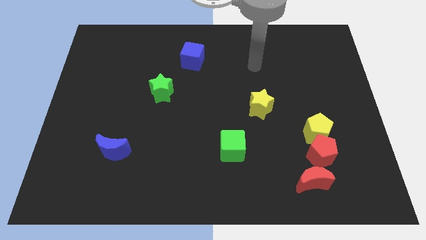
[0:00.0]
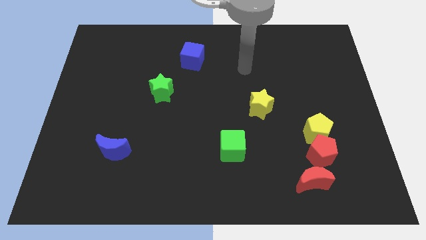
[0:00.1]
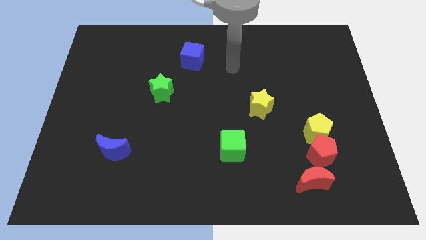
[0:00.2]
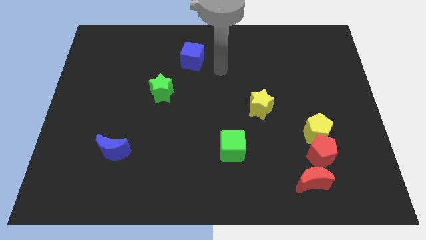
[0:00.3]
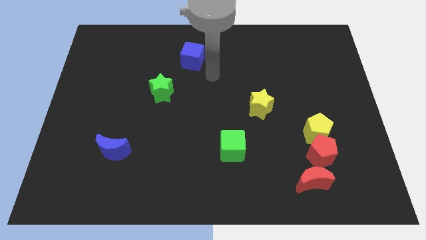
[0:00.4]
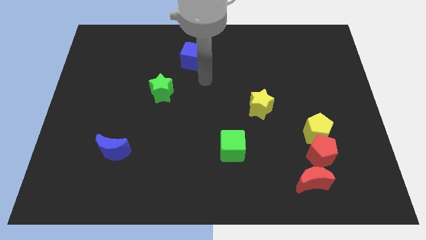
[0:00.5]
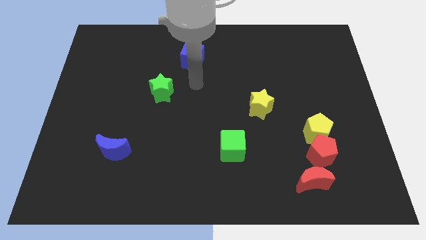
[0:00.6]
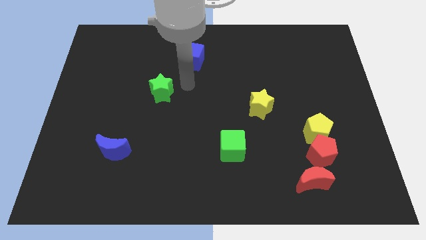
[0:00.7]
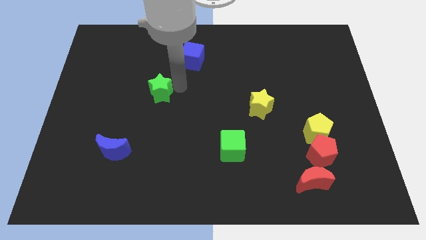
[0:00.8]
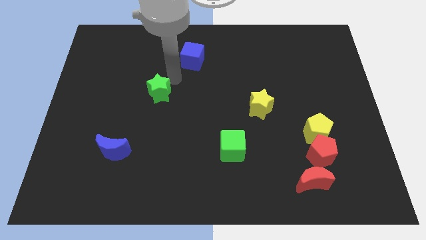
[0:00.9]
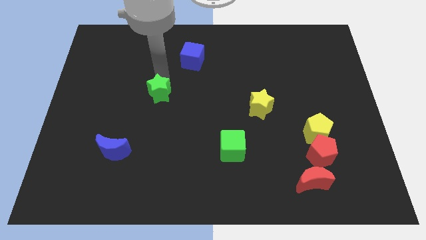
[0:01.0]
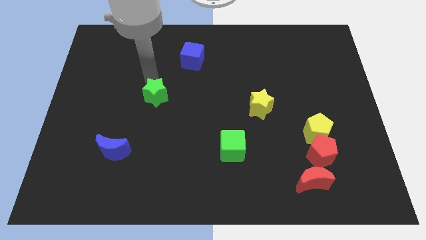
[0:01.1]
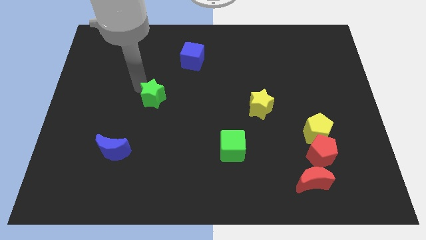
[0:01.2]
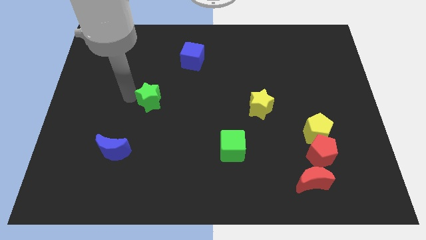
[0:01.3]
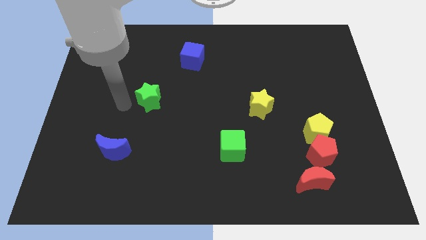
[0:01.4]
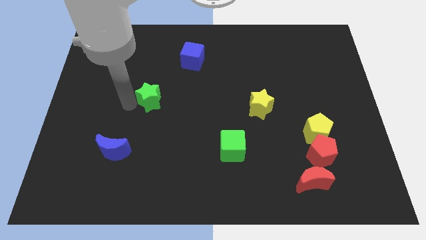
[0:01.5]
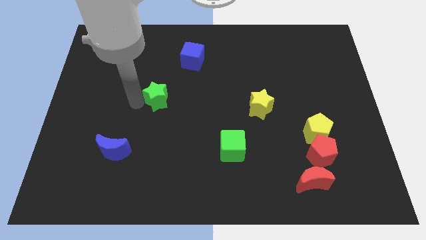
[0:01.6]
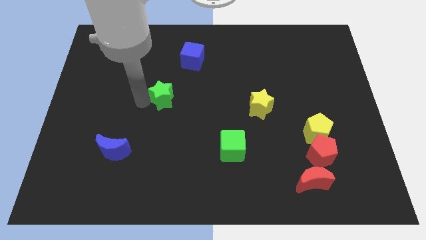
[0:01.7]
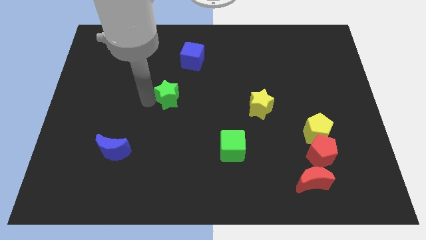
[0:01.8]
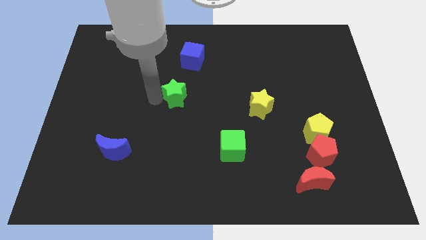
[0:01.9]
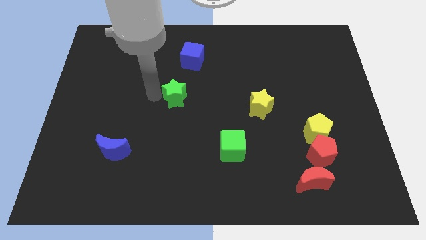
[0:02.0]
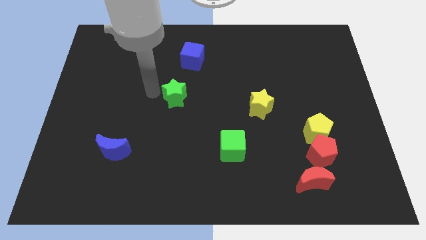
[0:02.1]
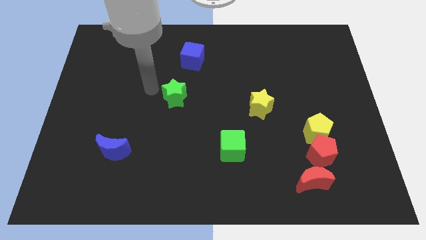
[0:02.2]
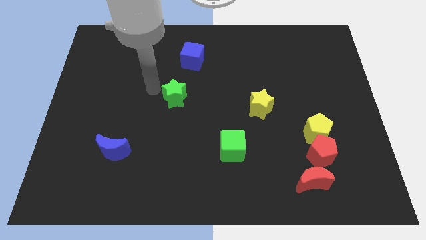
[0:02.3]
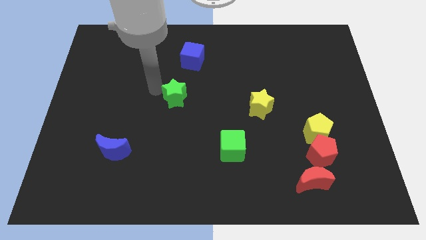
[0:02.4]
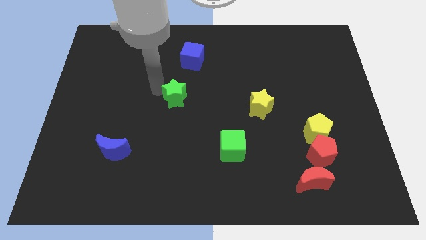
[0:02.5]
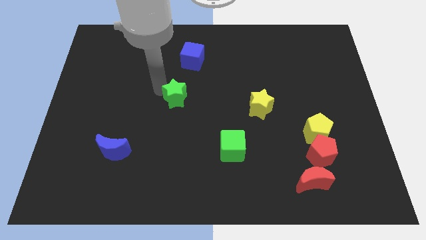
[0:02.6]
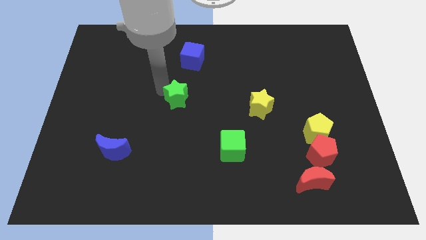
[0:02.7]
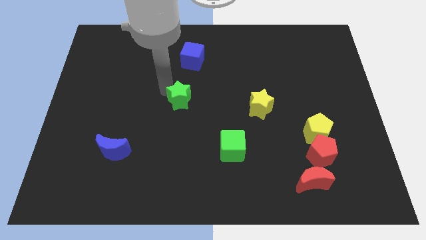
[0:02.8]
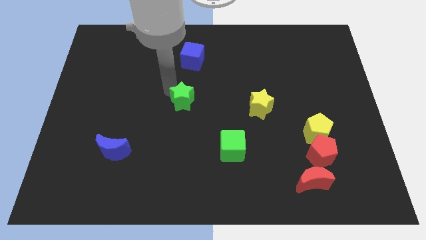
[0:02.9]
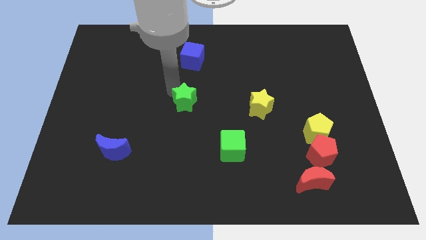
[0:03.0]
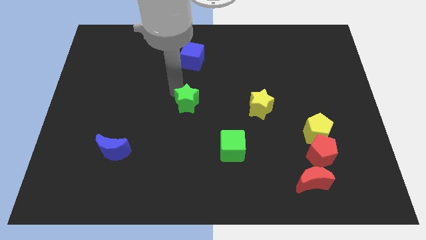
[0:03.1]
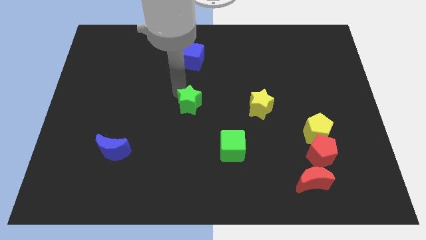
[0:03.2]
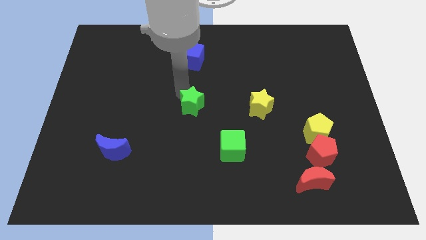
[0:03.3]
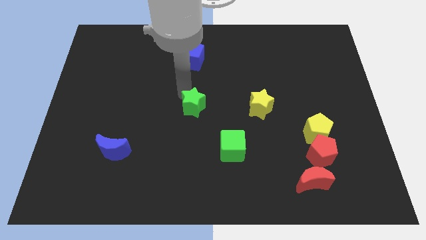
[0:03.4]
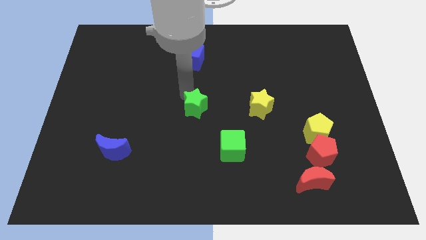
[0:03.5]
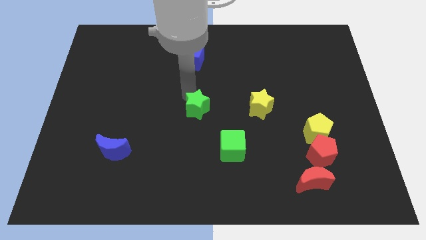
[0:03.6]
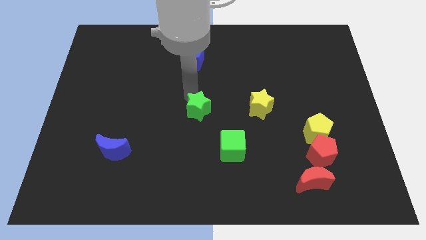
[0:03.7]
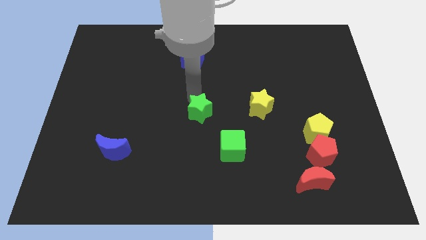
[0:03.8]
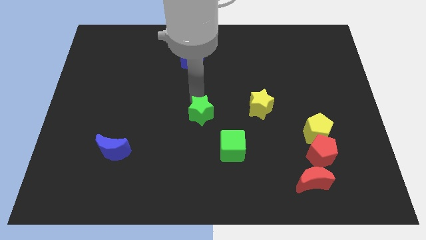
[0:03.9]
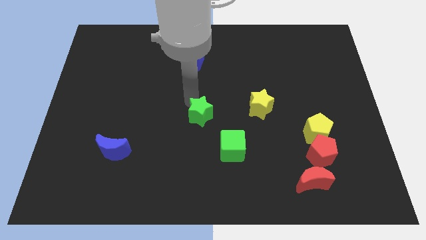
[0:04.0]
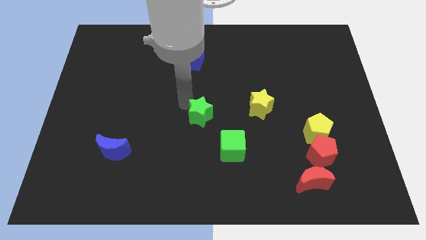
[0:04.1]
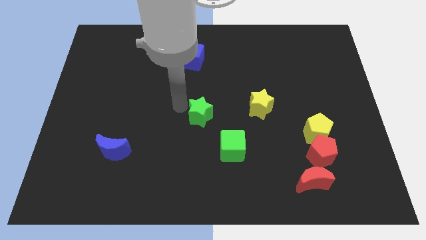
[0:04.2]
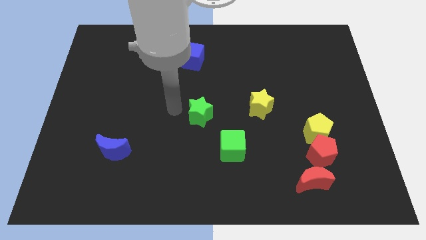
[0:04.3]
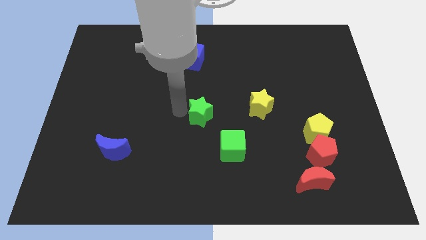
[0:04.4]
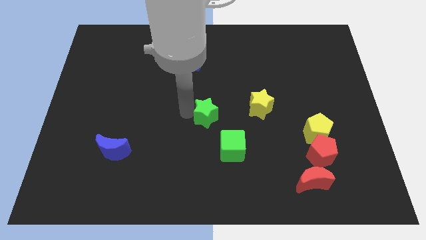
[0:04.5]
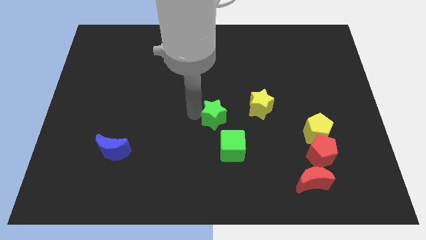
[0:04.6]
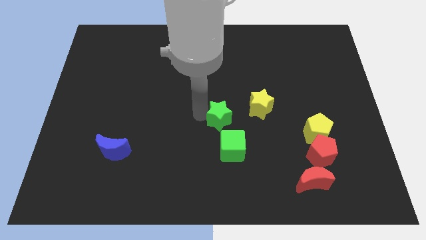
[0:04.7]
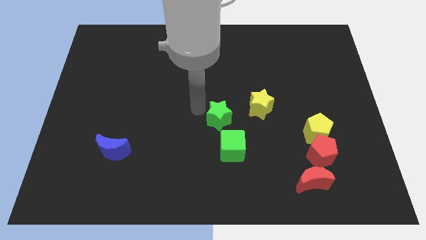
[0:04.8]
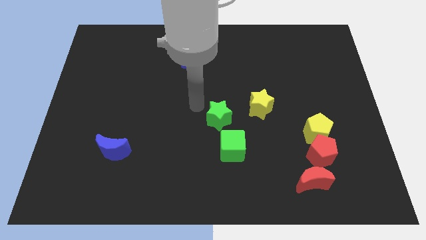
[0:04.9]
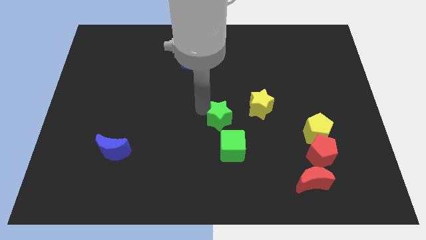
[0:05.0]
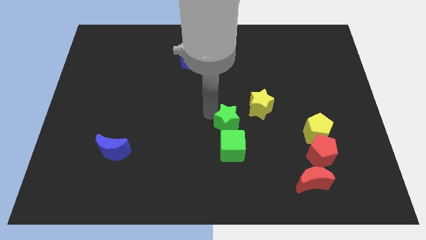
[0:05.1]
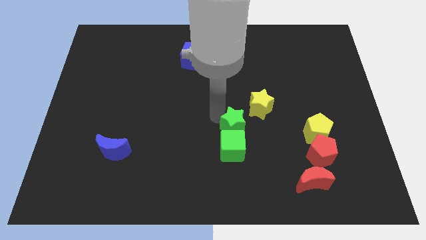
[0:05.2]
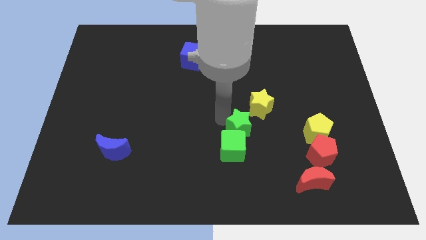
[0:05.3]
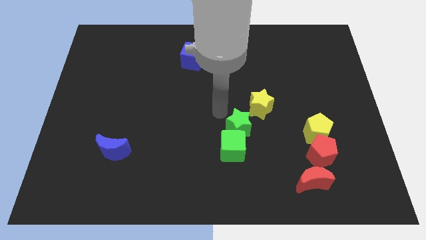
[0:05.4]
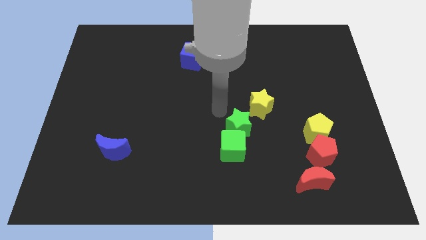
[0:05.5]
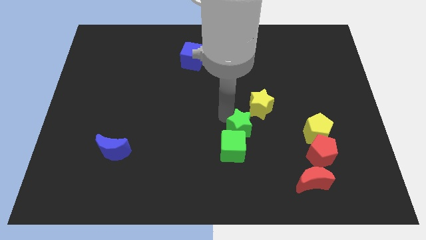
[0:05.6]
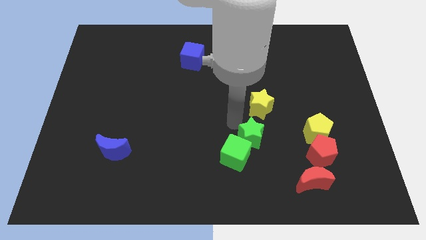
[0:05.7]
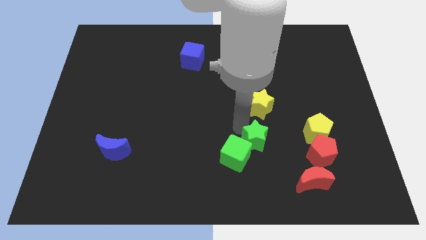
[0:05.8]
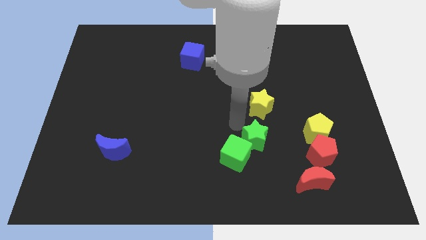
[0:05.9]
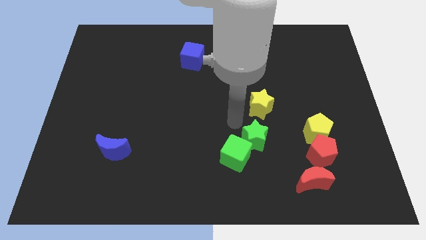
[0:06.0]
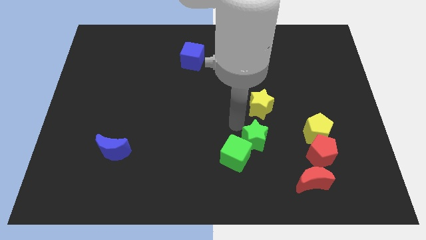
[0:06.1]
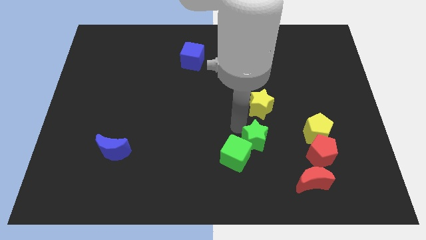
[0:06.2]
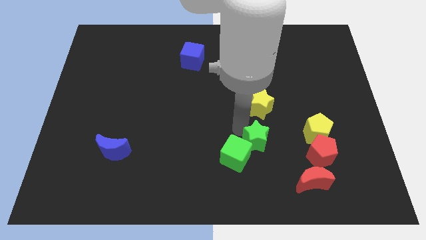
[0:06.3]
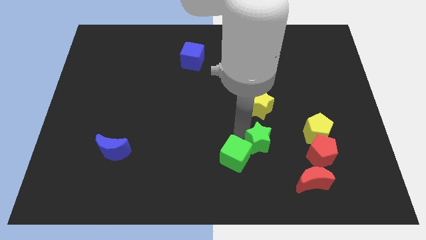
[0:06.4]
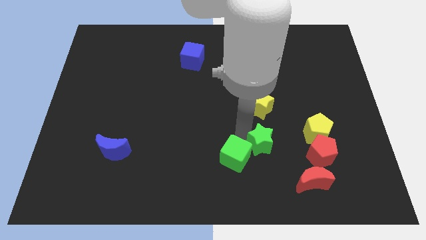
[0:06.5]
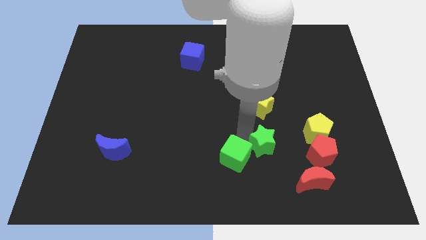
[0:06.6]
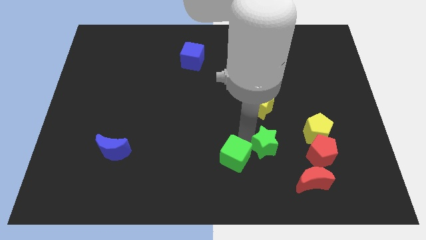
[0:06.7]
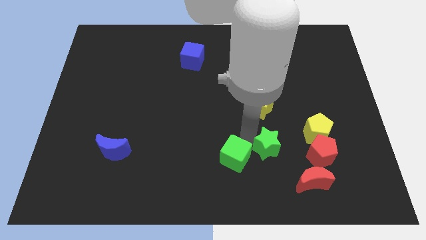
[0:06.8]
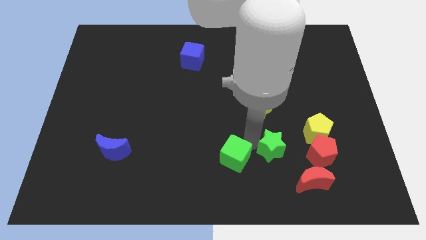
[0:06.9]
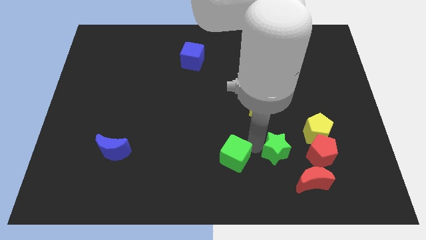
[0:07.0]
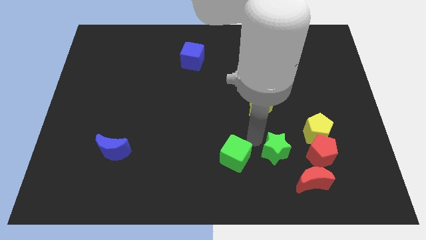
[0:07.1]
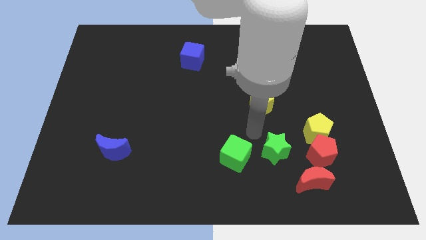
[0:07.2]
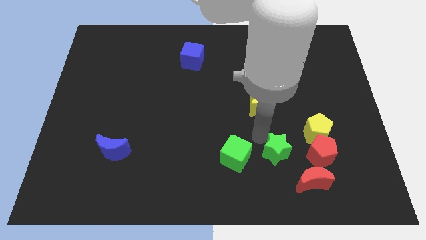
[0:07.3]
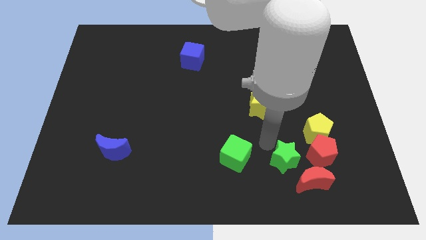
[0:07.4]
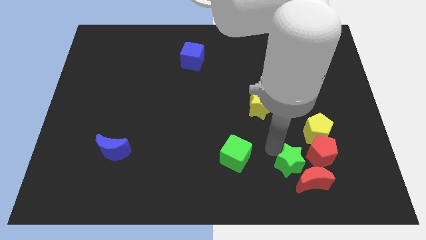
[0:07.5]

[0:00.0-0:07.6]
move the green star towards the red moon
